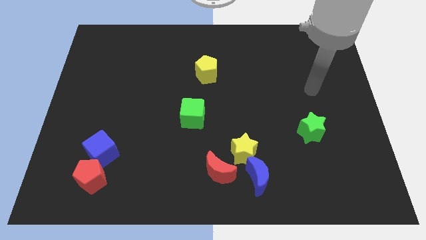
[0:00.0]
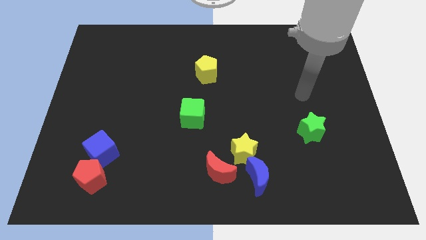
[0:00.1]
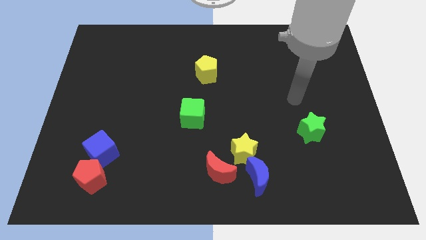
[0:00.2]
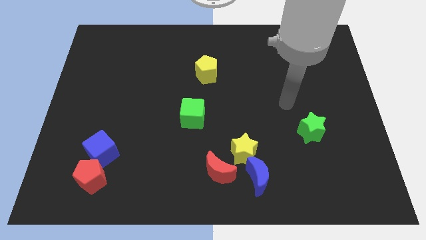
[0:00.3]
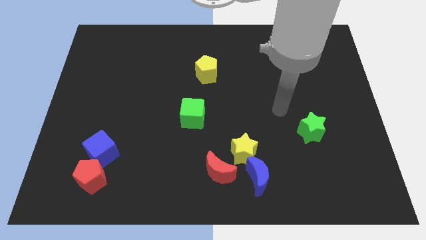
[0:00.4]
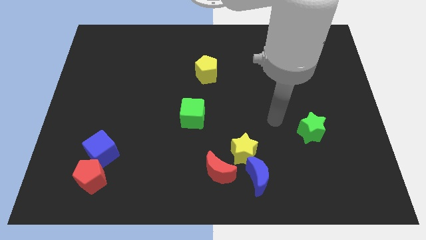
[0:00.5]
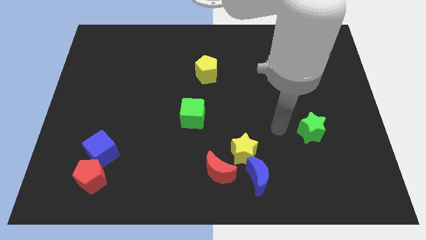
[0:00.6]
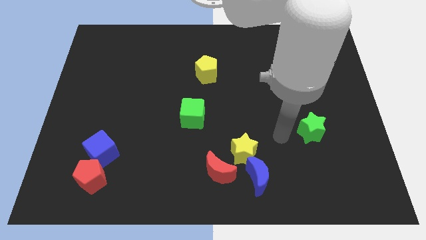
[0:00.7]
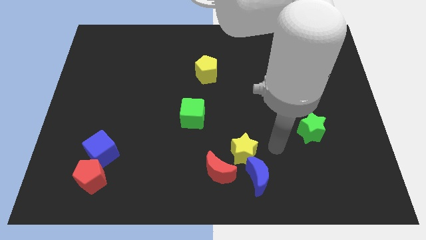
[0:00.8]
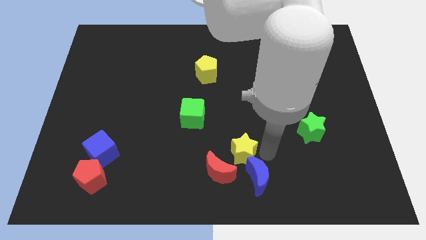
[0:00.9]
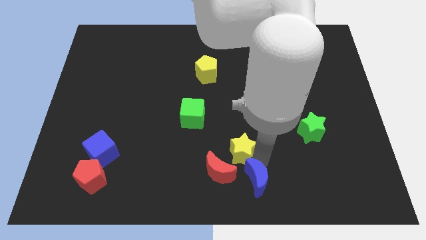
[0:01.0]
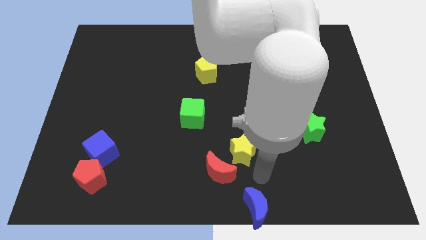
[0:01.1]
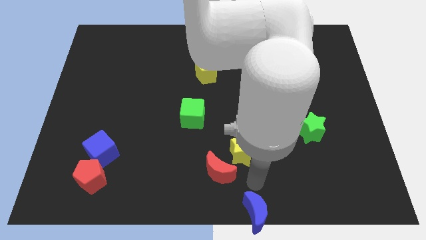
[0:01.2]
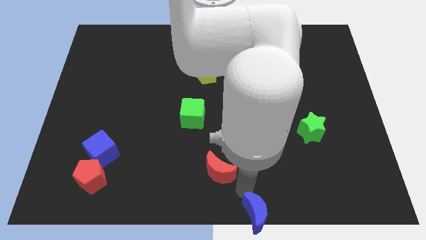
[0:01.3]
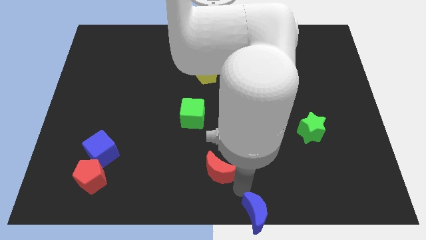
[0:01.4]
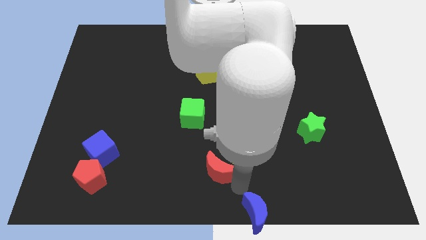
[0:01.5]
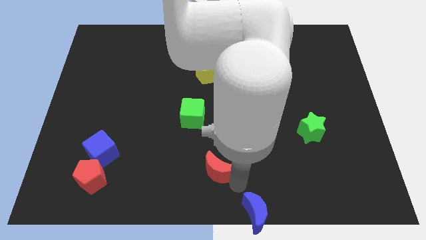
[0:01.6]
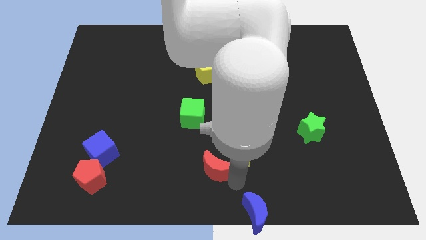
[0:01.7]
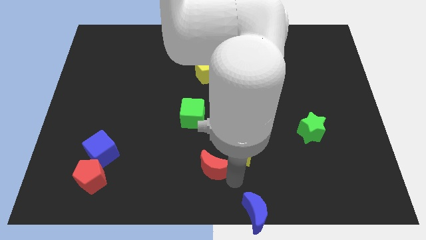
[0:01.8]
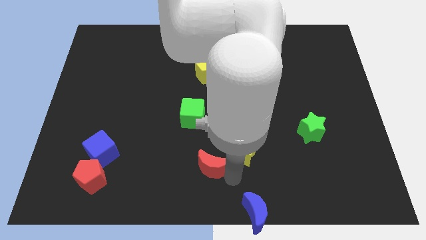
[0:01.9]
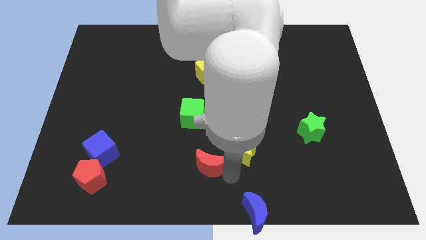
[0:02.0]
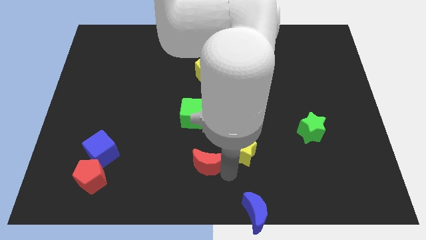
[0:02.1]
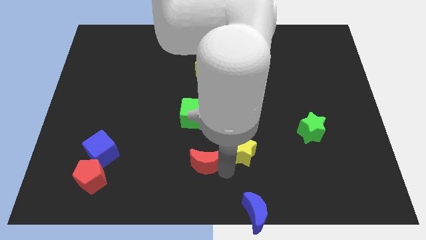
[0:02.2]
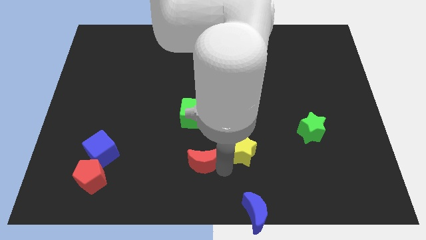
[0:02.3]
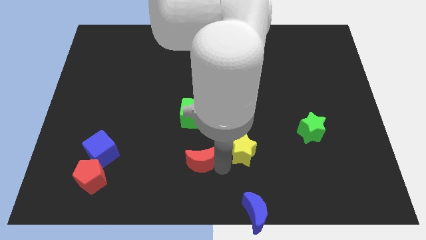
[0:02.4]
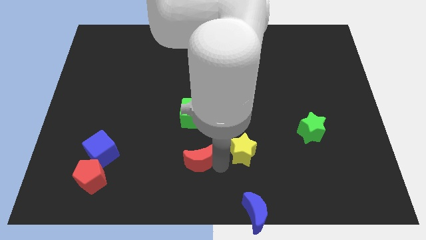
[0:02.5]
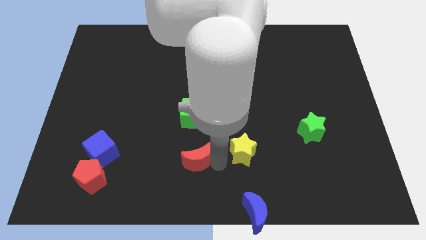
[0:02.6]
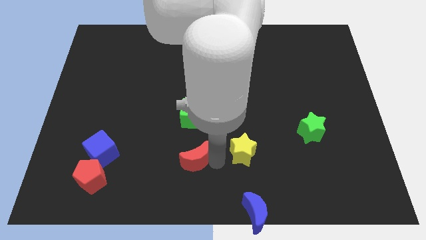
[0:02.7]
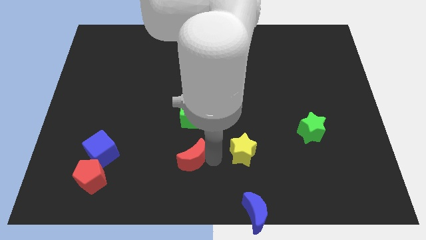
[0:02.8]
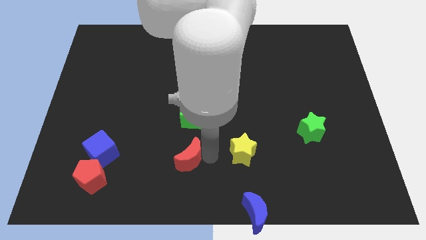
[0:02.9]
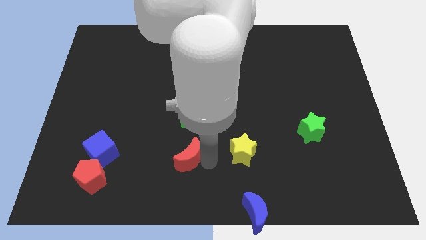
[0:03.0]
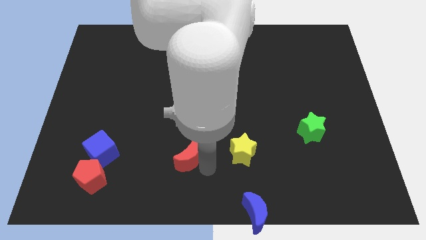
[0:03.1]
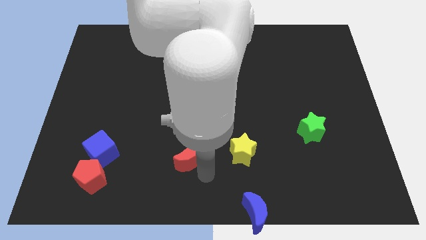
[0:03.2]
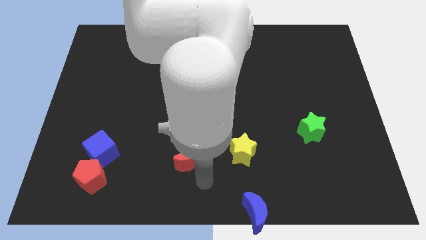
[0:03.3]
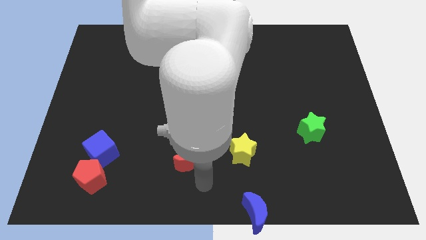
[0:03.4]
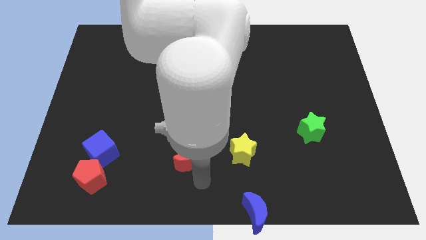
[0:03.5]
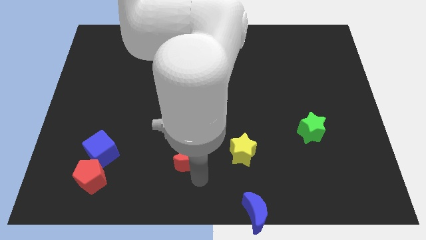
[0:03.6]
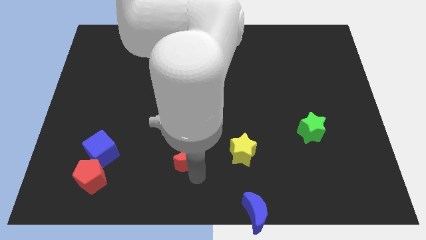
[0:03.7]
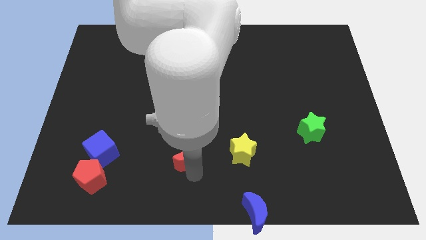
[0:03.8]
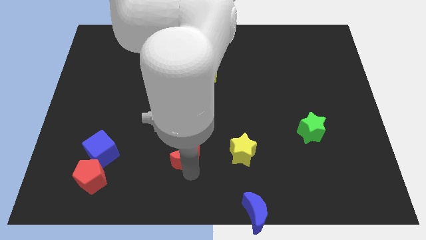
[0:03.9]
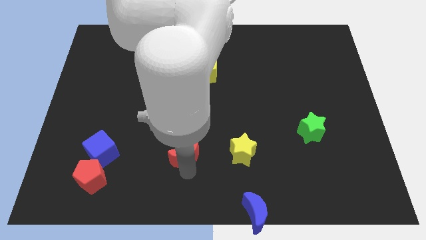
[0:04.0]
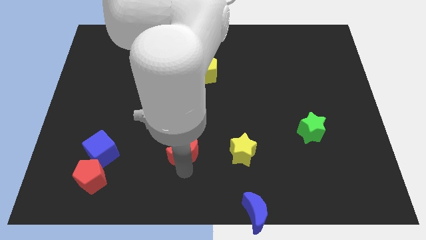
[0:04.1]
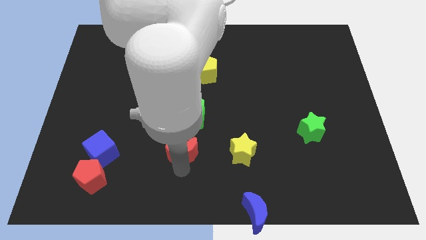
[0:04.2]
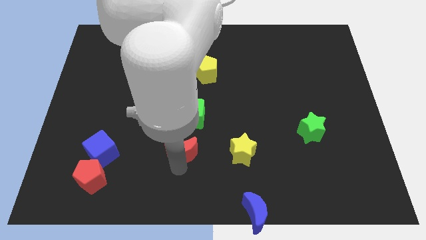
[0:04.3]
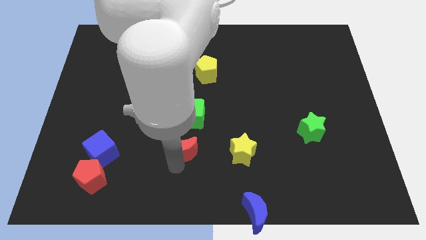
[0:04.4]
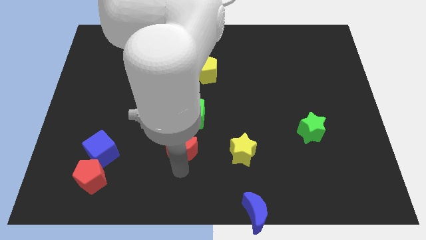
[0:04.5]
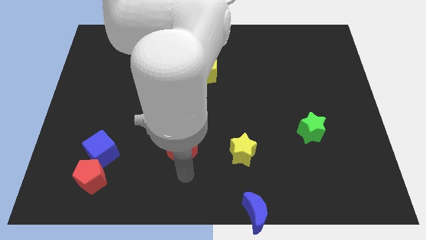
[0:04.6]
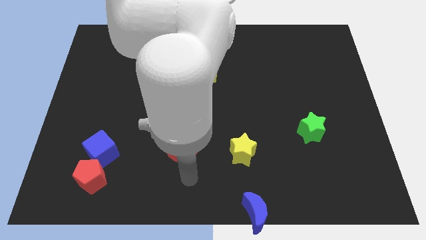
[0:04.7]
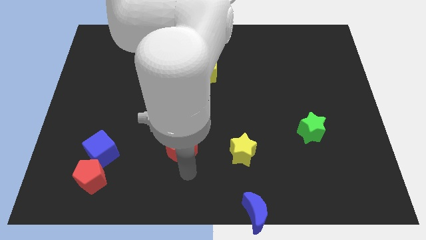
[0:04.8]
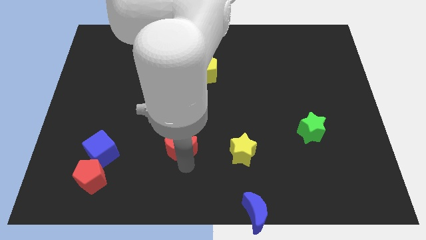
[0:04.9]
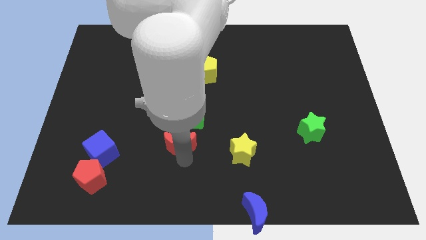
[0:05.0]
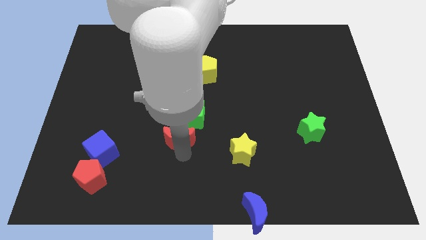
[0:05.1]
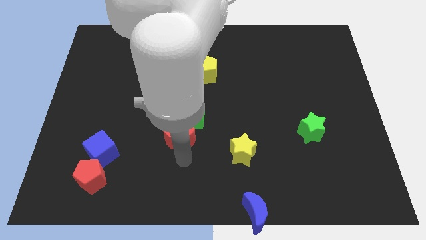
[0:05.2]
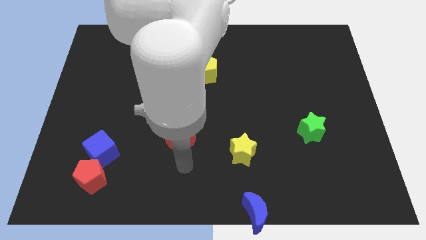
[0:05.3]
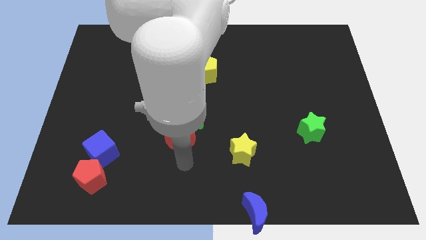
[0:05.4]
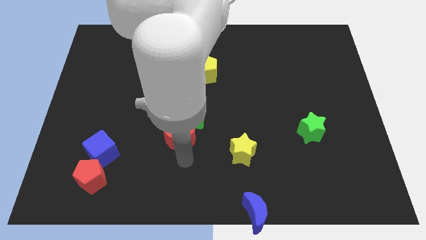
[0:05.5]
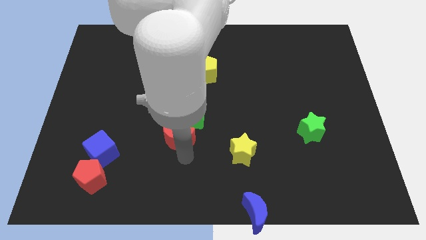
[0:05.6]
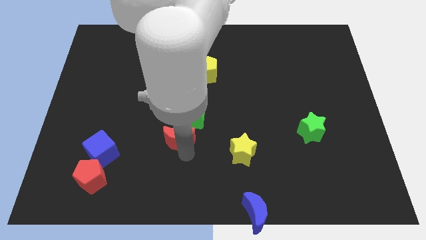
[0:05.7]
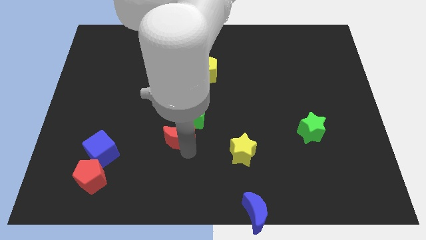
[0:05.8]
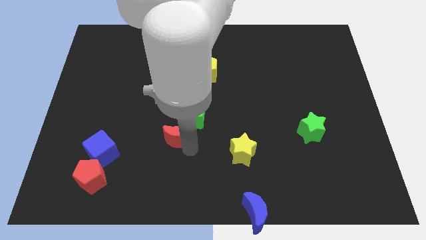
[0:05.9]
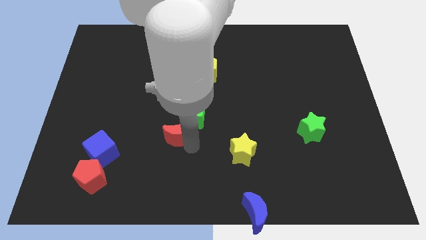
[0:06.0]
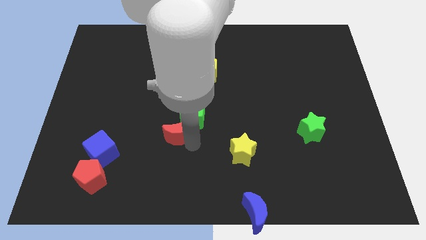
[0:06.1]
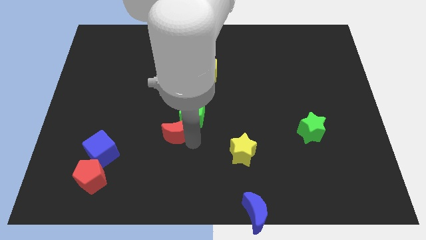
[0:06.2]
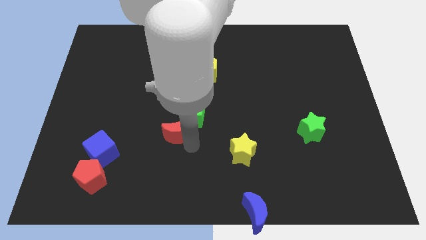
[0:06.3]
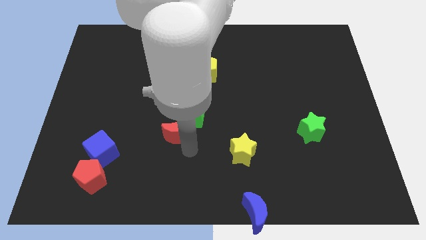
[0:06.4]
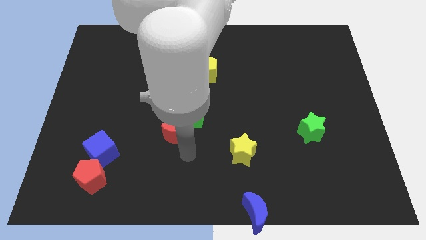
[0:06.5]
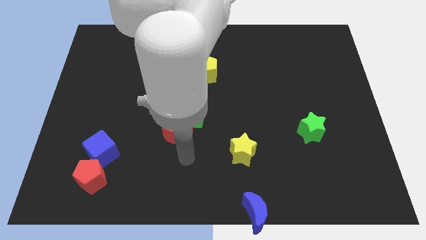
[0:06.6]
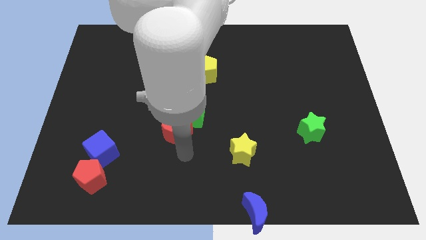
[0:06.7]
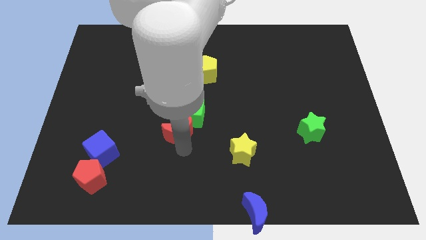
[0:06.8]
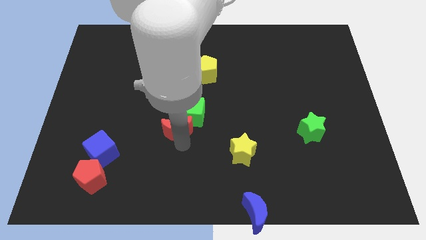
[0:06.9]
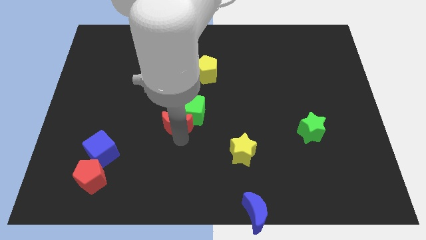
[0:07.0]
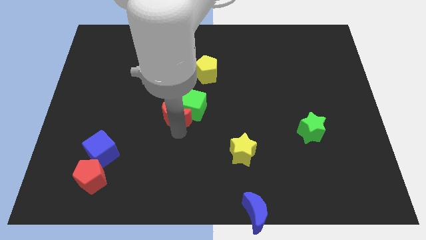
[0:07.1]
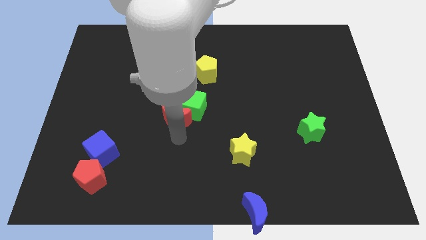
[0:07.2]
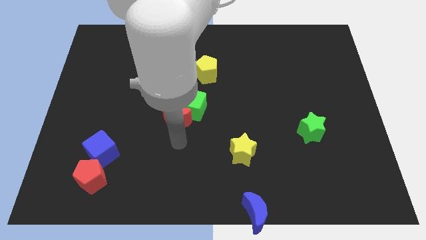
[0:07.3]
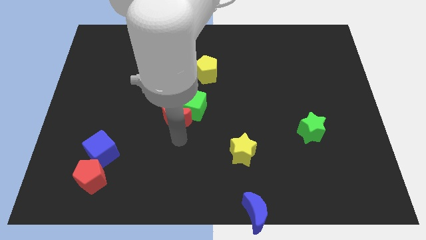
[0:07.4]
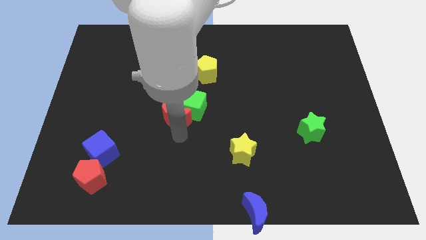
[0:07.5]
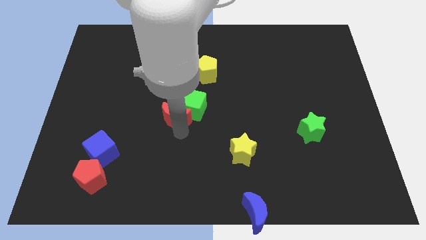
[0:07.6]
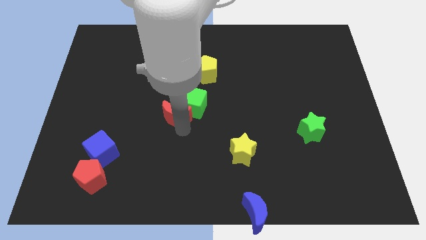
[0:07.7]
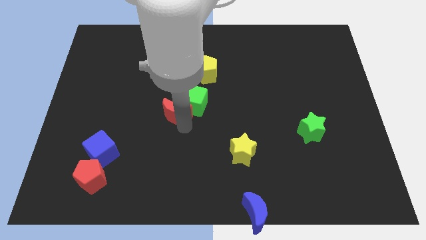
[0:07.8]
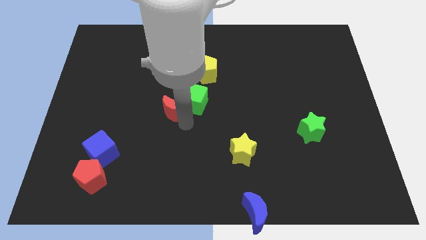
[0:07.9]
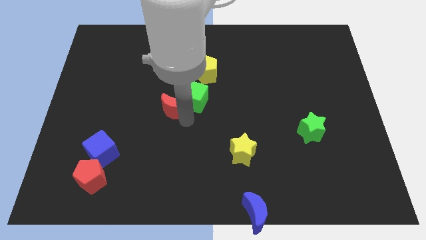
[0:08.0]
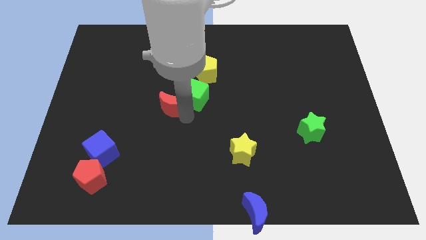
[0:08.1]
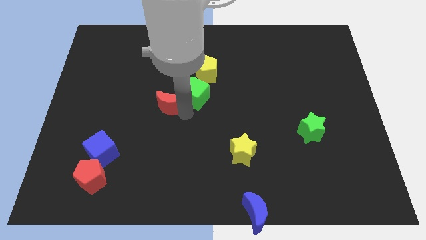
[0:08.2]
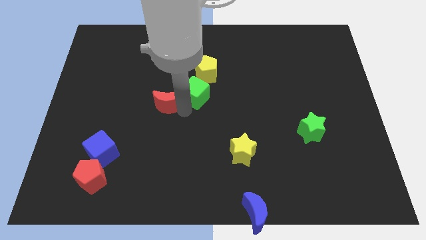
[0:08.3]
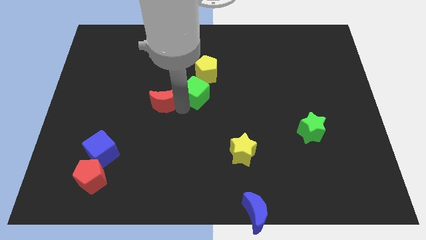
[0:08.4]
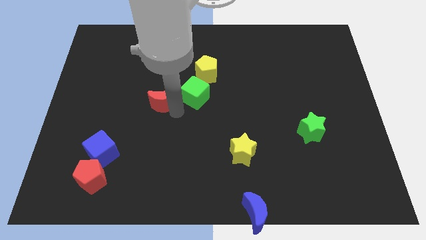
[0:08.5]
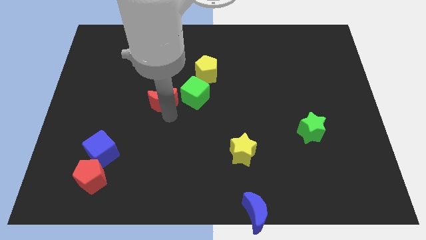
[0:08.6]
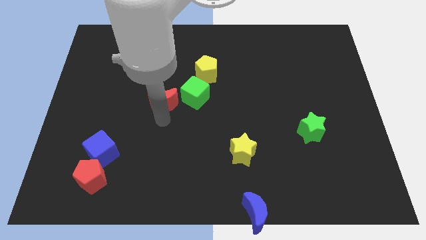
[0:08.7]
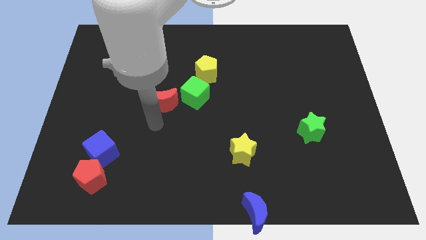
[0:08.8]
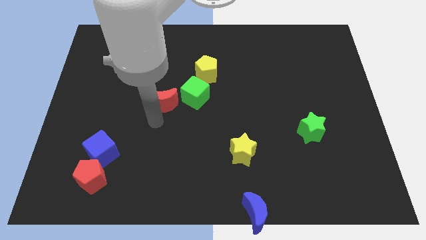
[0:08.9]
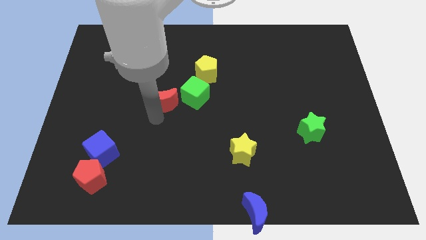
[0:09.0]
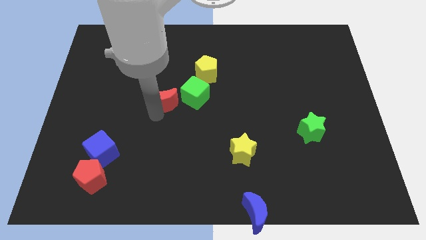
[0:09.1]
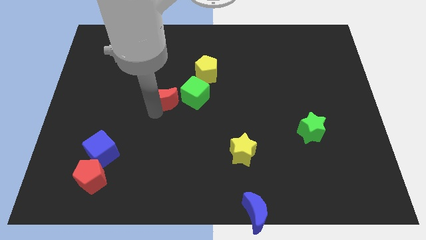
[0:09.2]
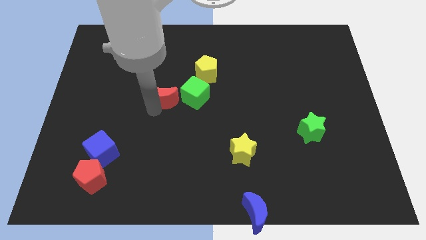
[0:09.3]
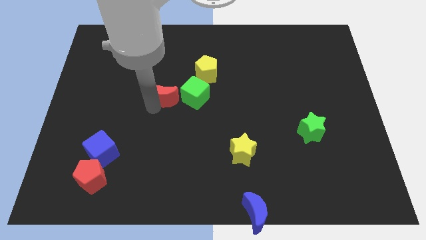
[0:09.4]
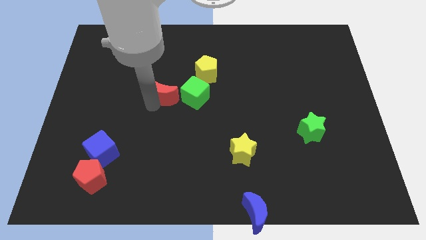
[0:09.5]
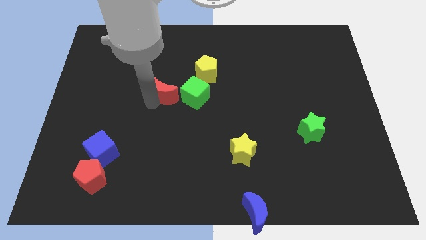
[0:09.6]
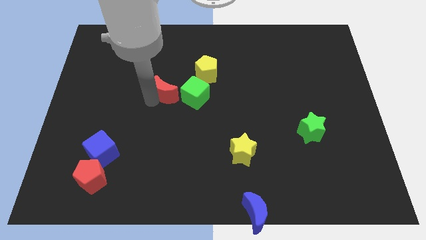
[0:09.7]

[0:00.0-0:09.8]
put the red moon to the top left of the green cube
